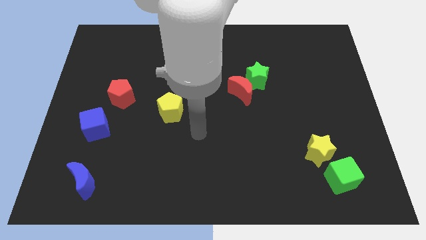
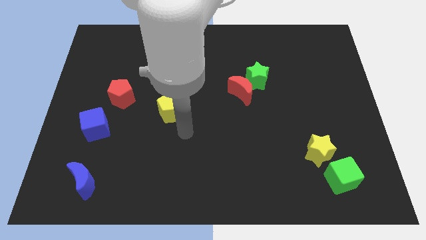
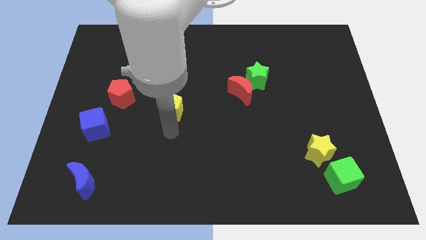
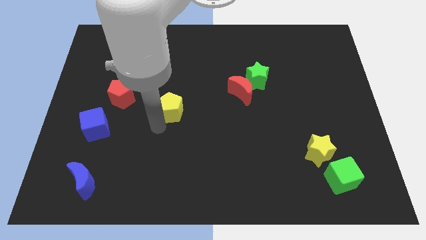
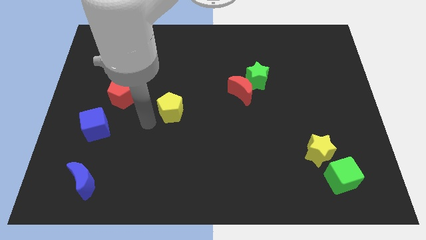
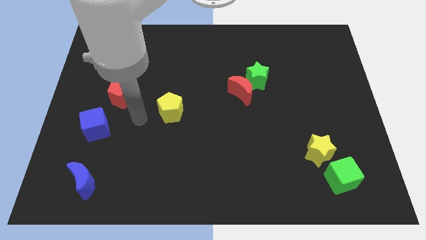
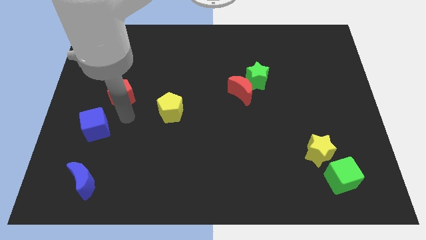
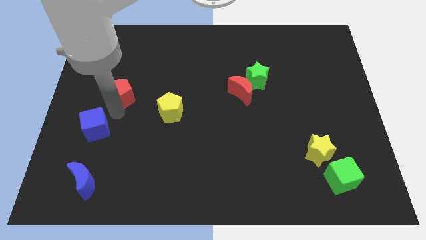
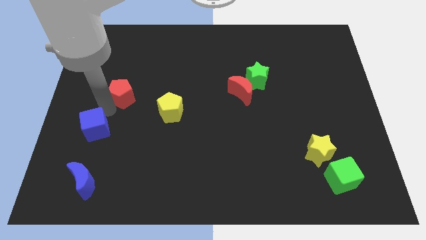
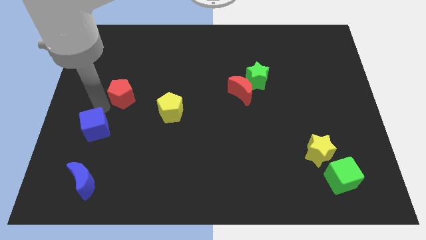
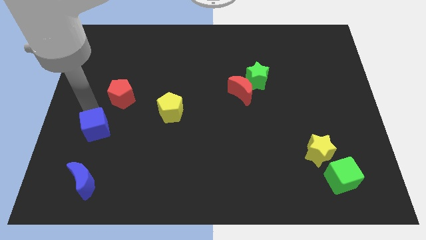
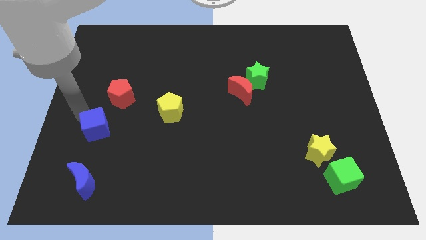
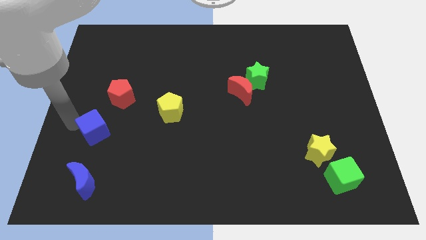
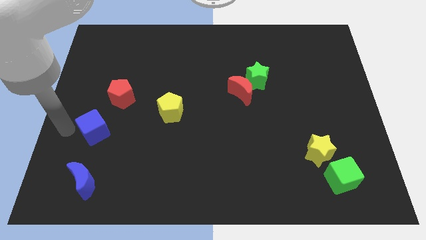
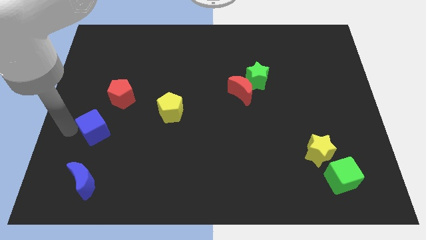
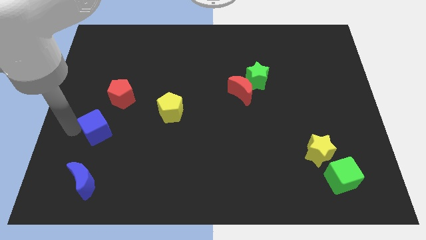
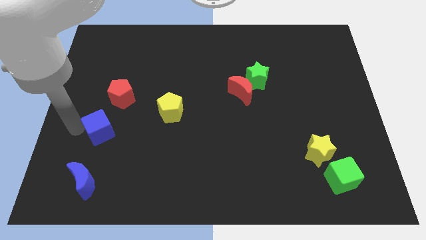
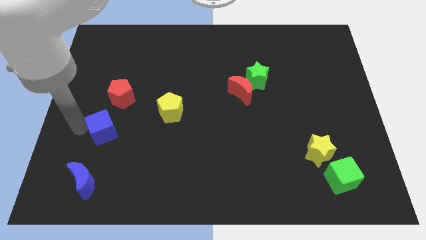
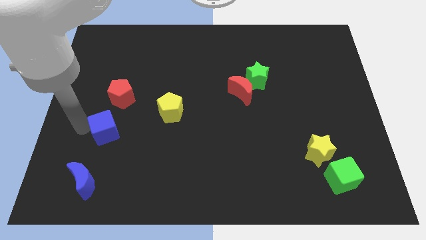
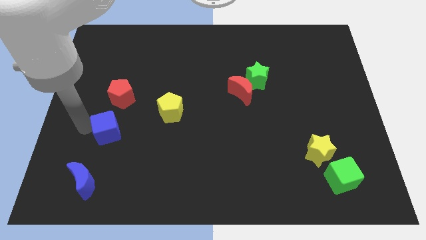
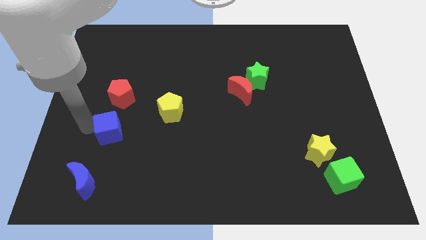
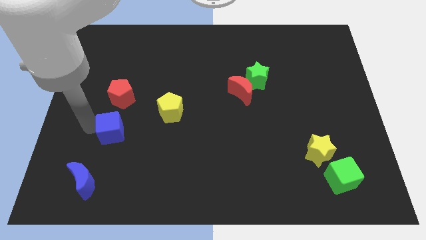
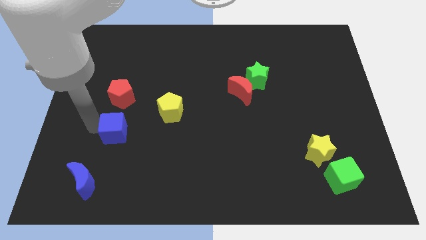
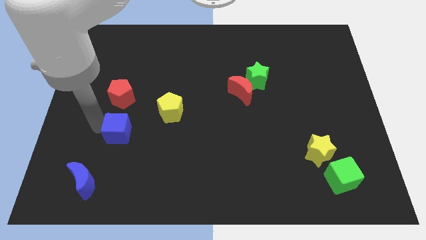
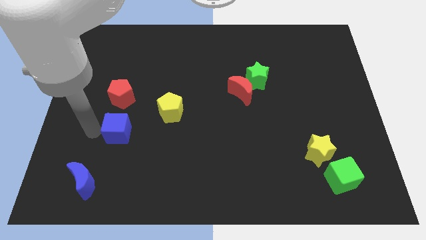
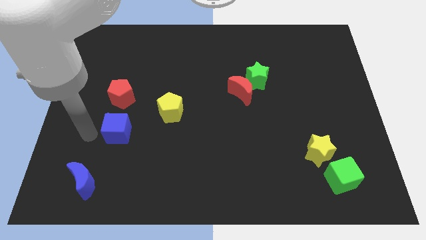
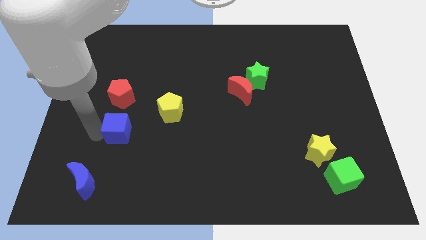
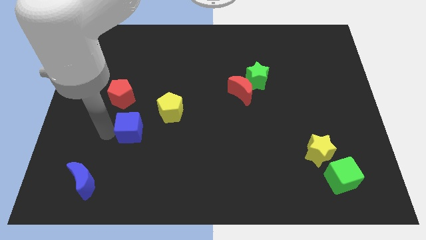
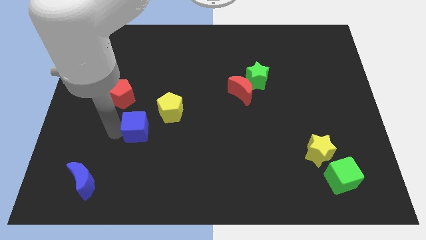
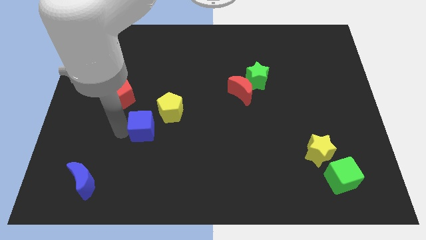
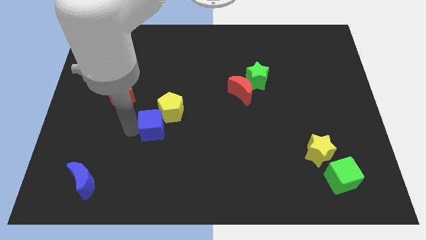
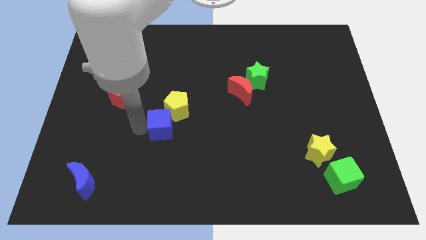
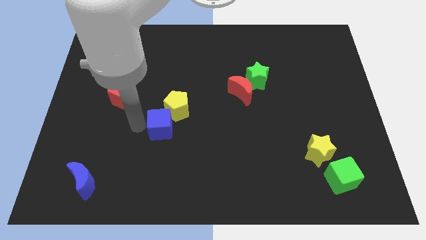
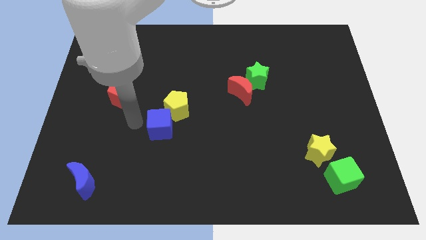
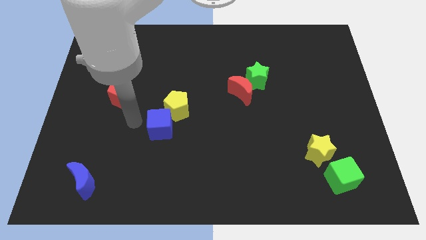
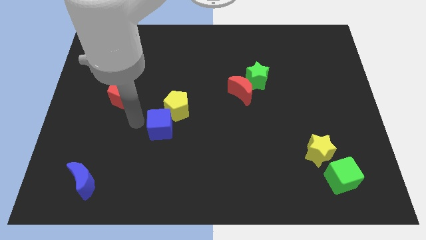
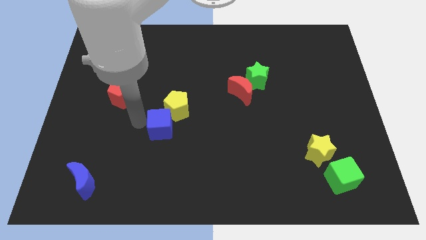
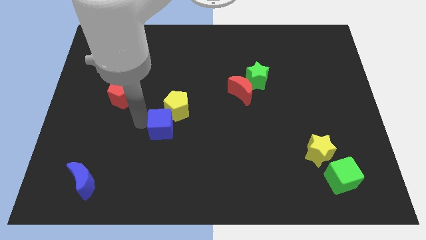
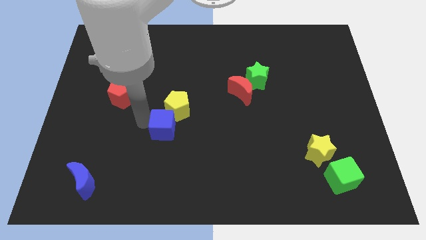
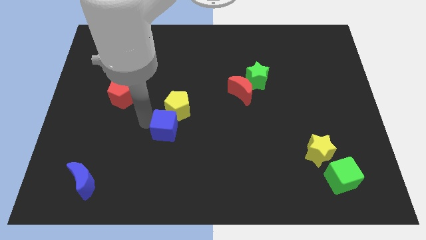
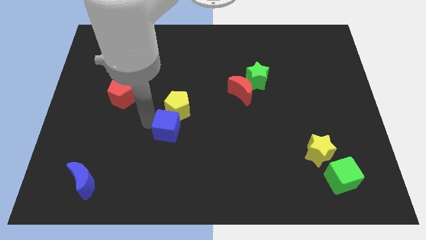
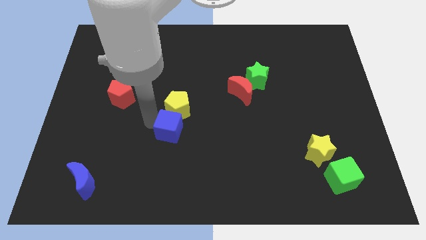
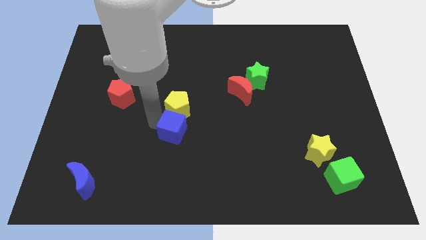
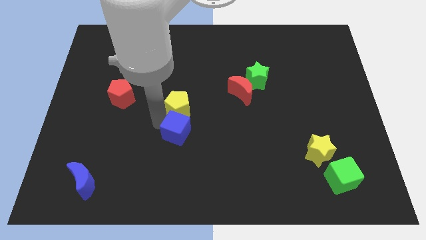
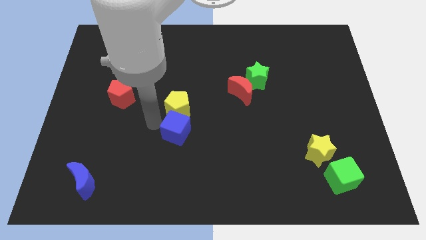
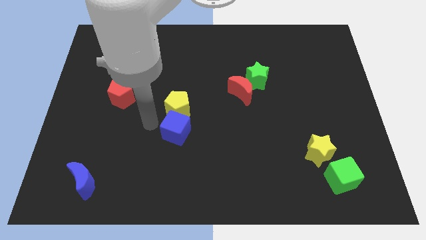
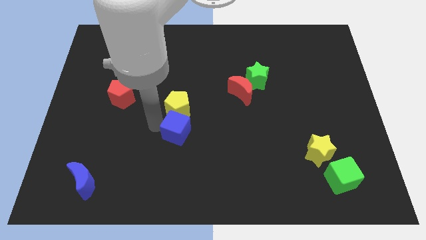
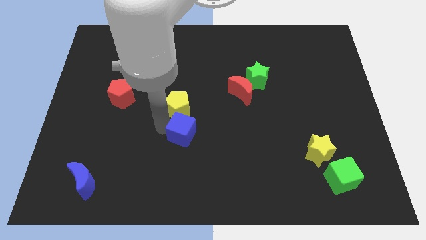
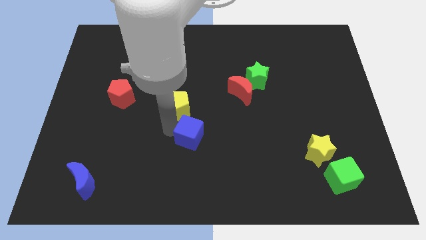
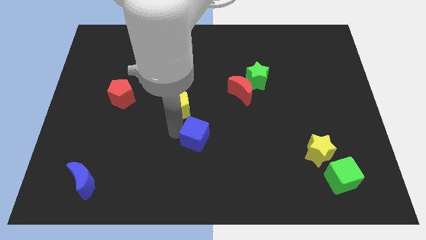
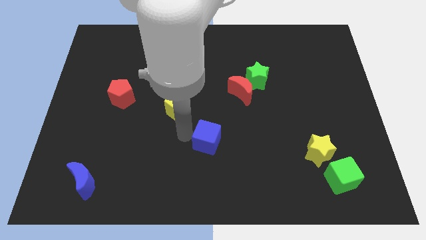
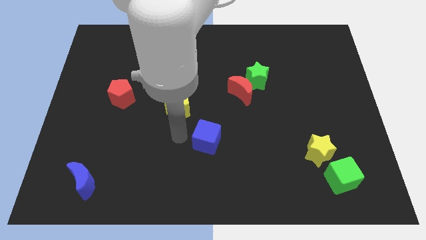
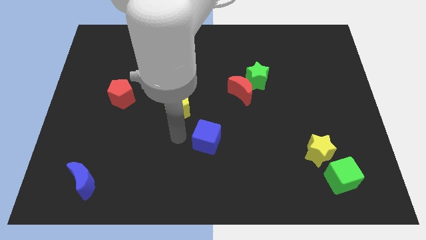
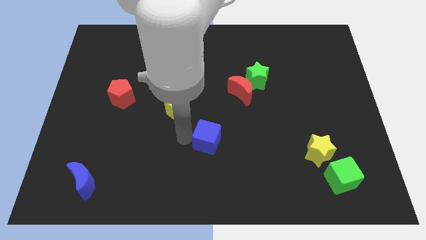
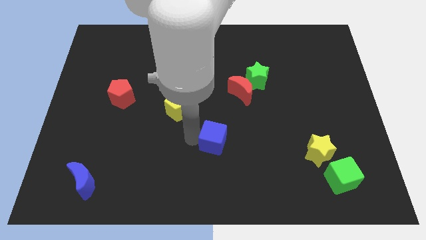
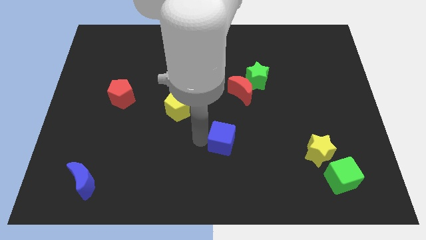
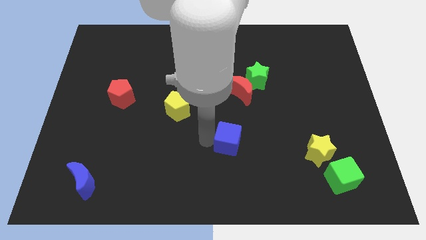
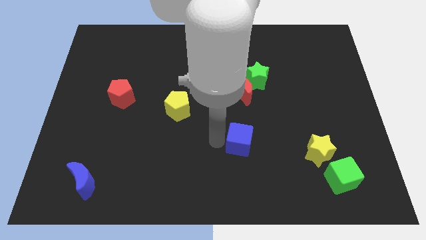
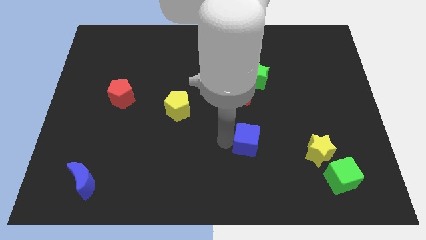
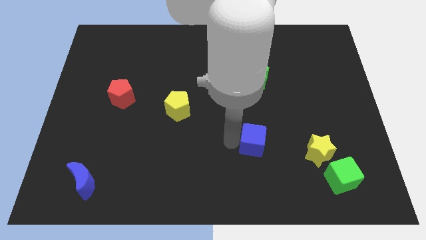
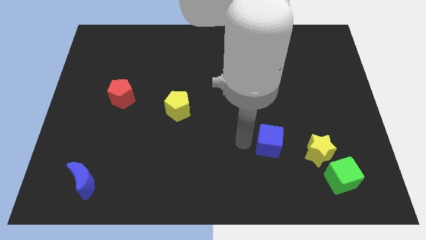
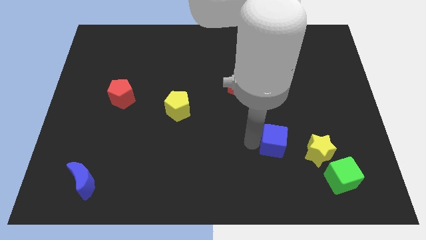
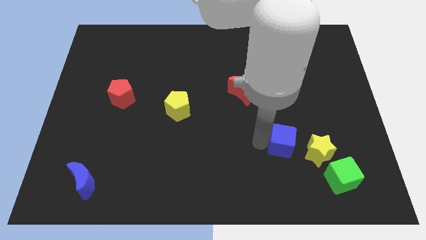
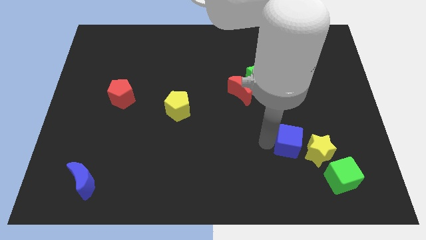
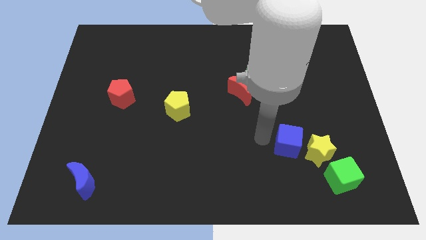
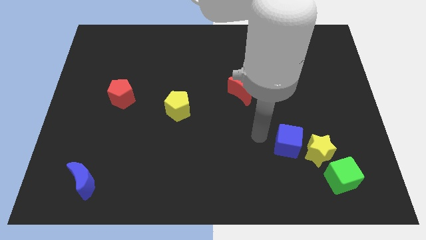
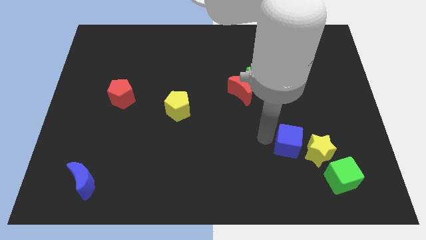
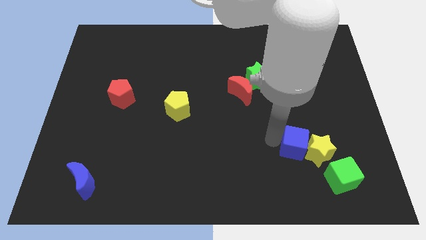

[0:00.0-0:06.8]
push the blue cube next to the yellow star

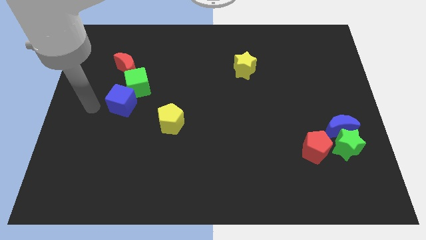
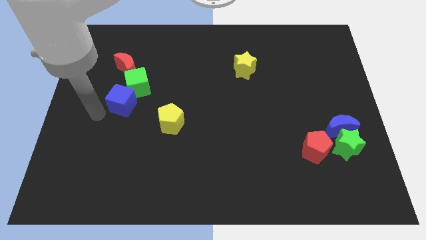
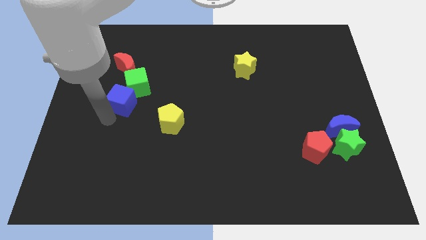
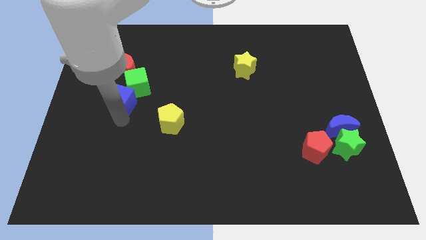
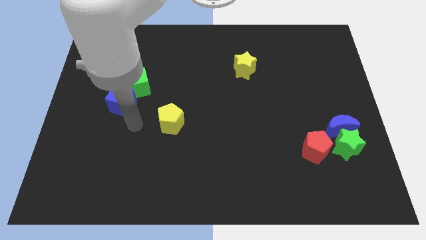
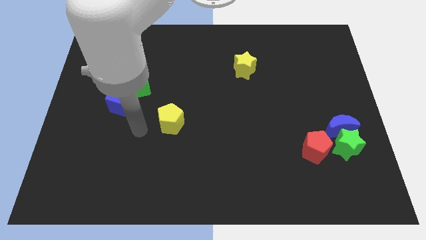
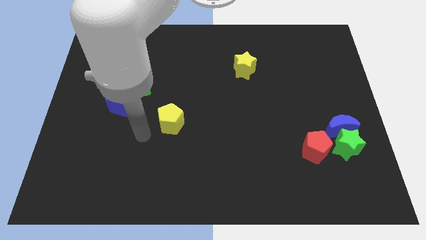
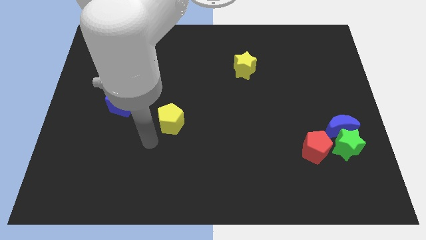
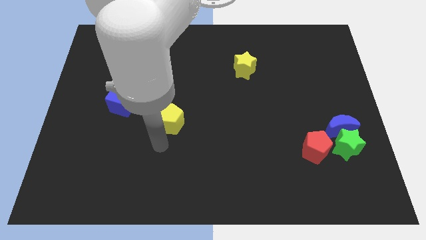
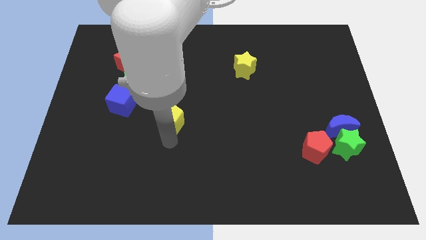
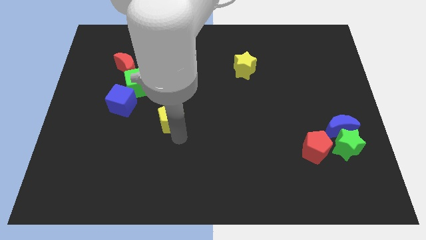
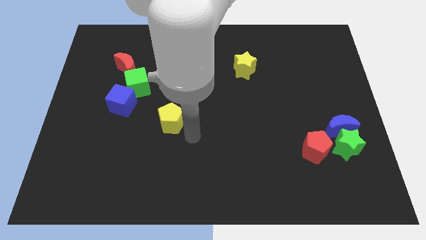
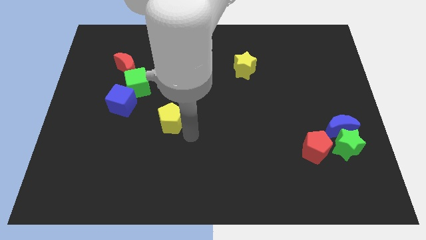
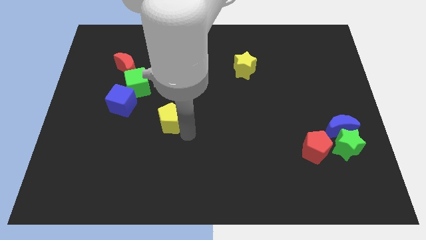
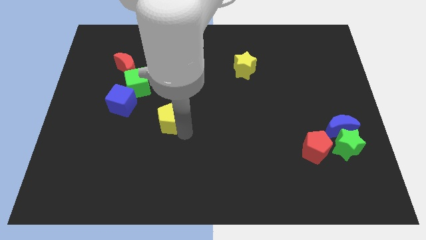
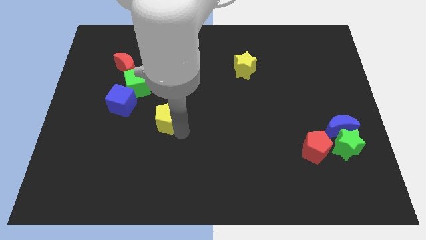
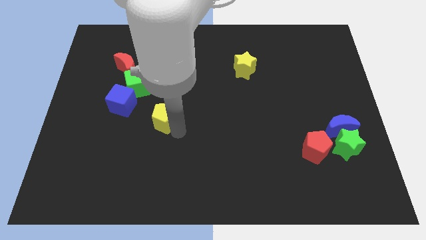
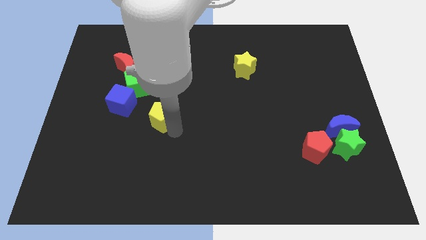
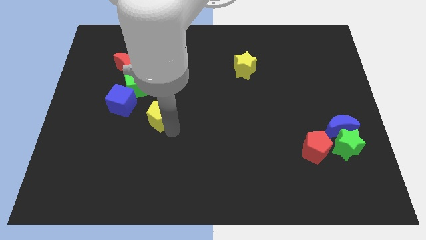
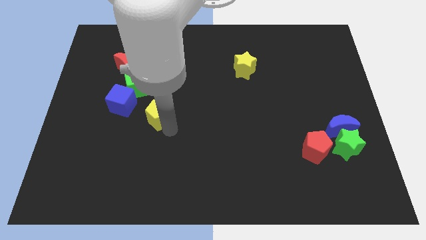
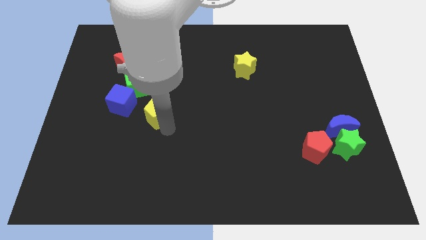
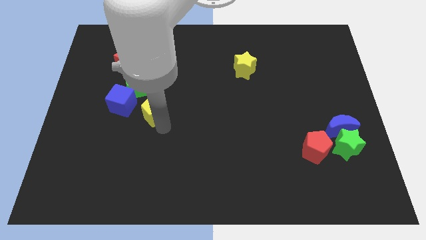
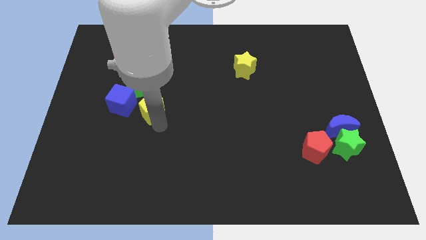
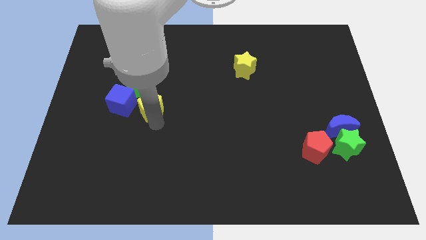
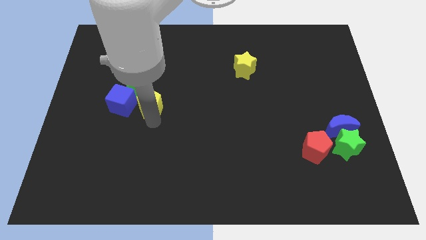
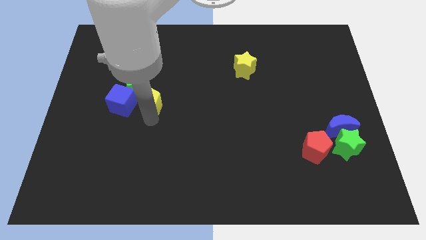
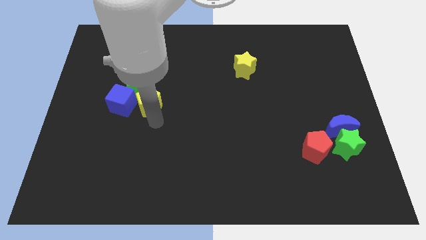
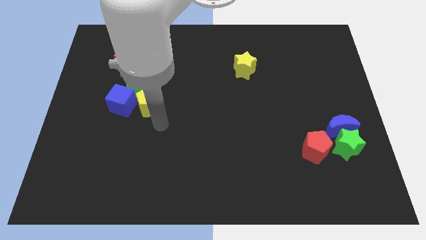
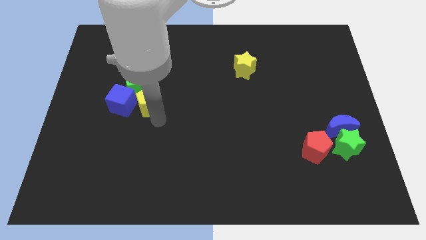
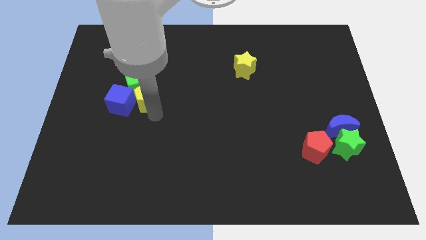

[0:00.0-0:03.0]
slide the yellow pentagon close to the green cube
